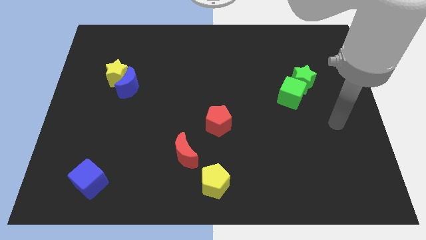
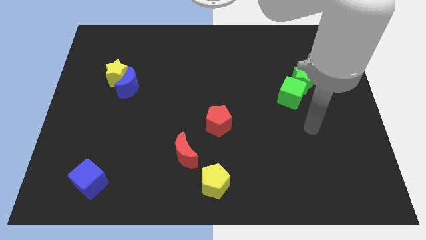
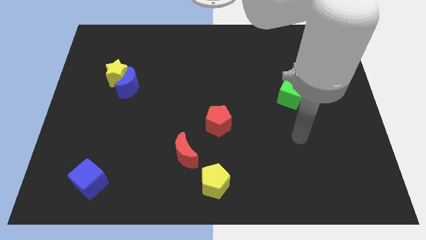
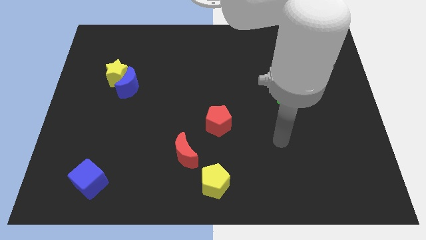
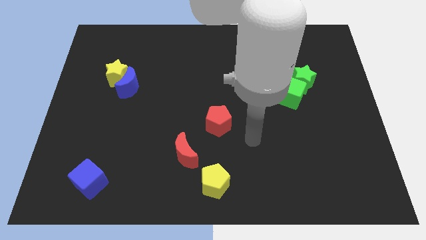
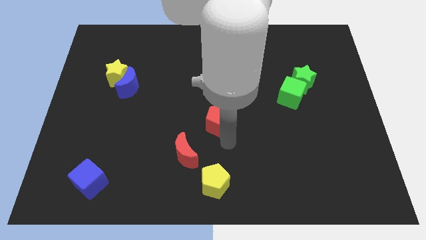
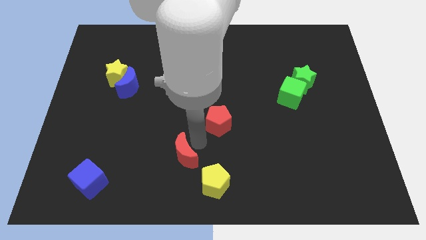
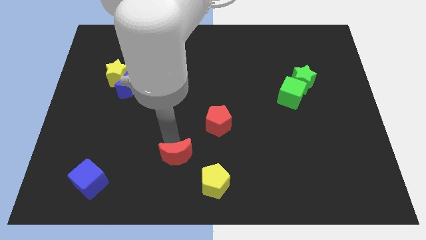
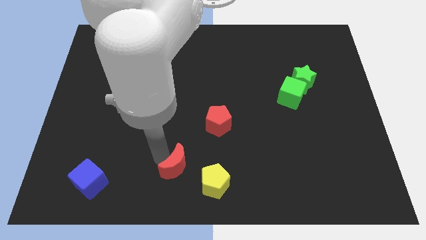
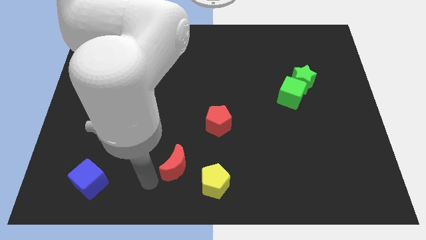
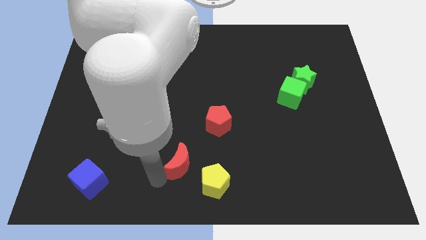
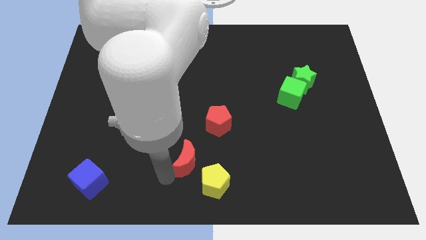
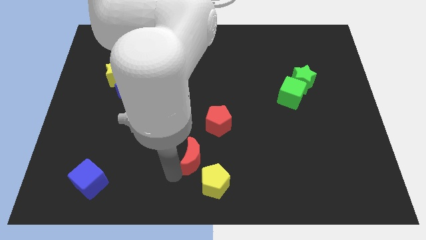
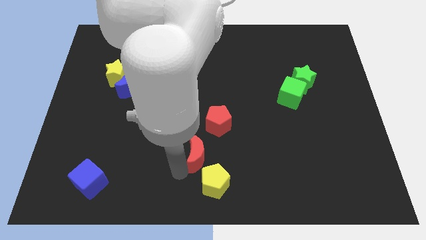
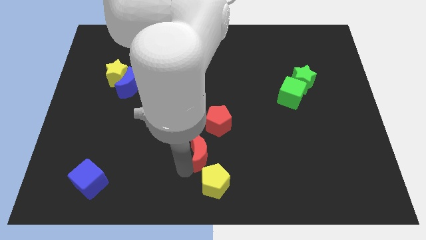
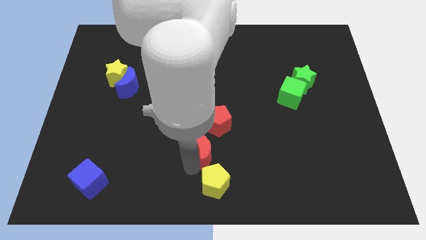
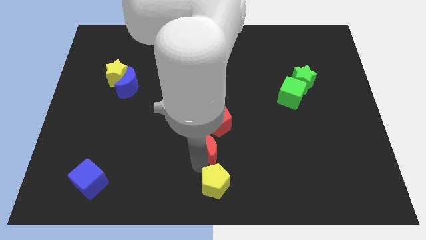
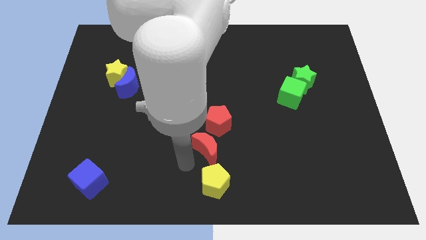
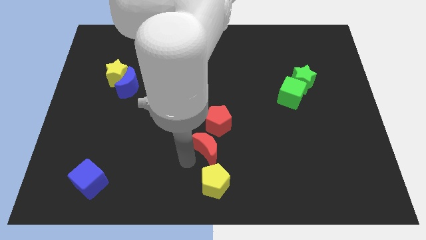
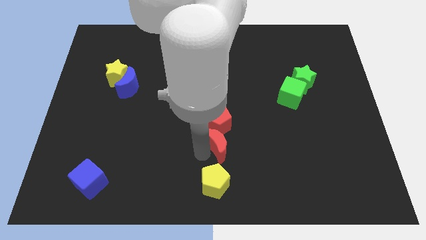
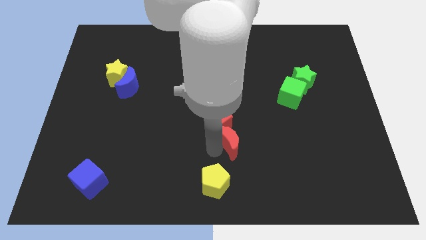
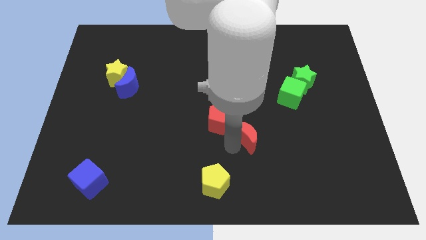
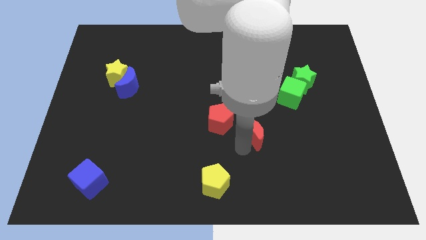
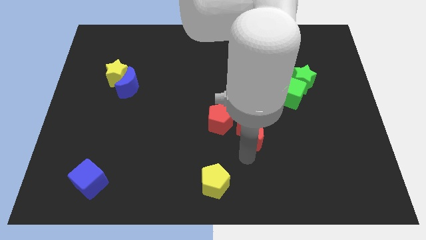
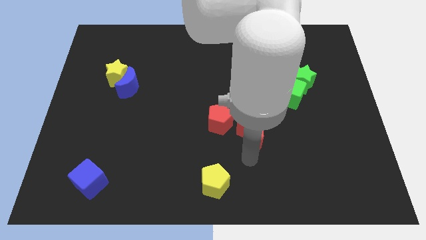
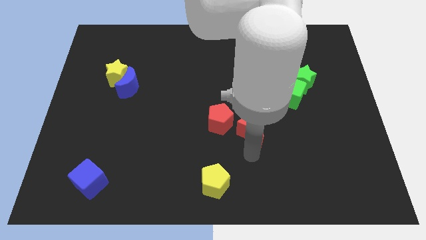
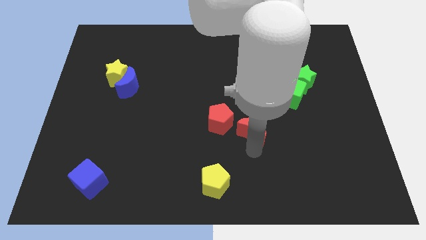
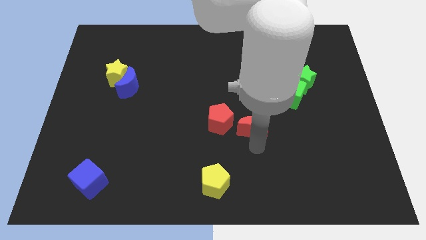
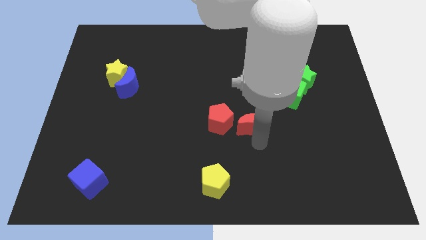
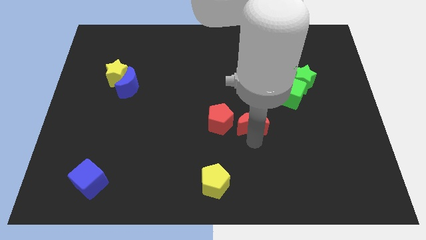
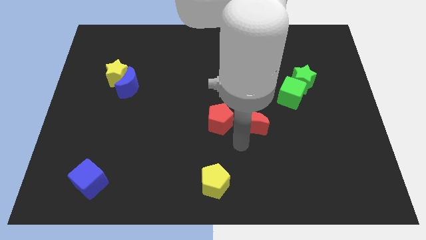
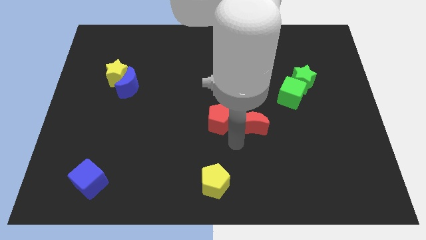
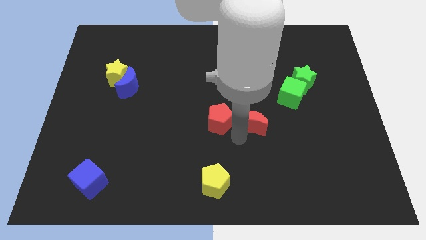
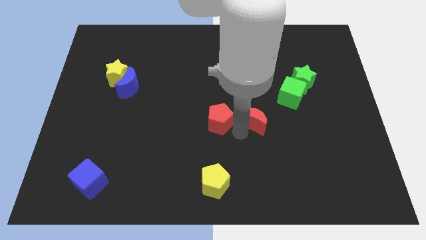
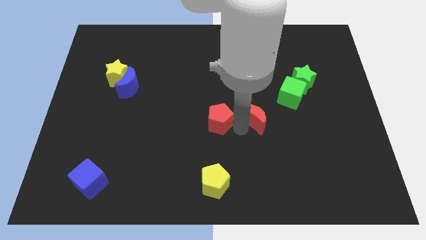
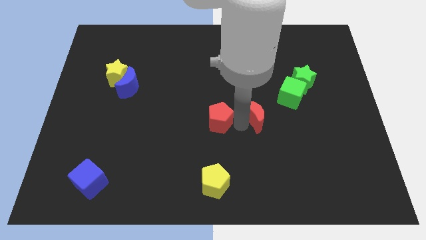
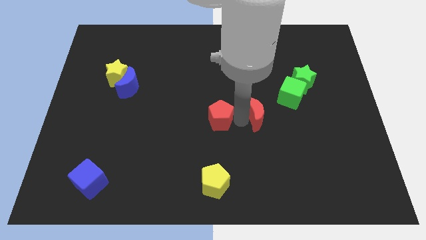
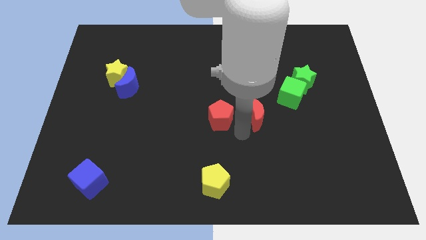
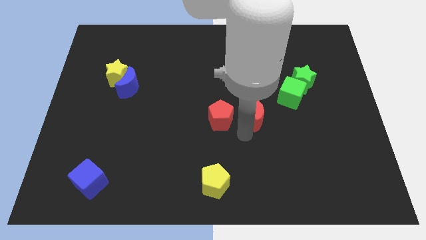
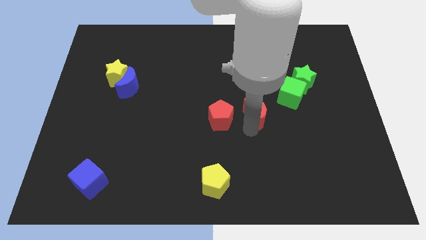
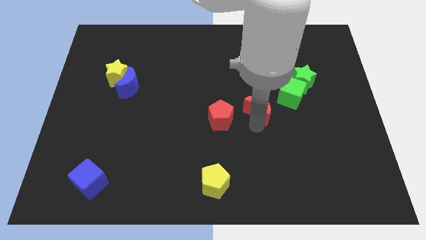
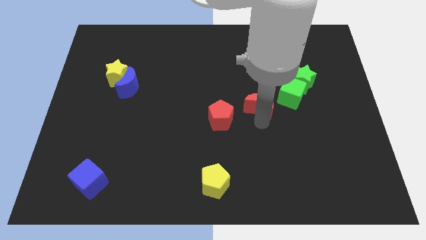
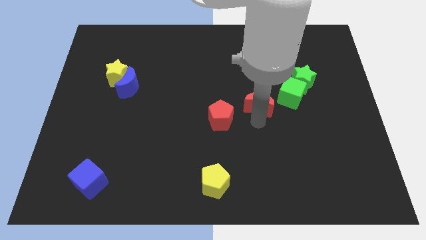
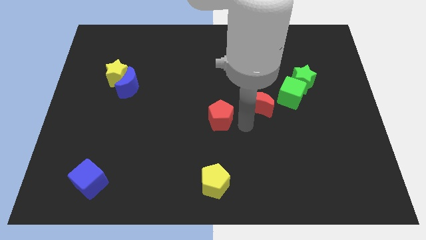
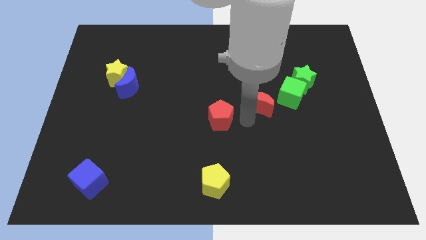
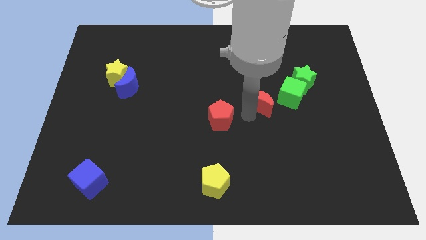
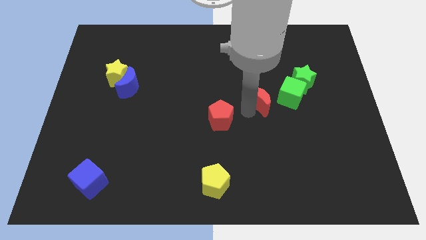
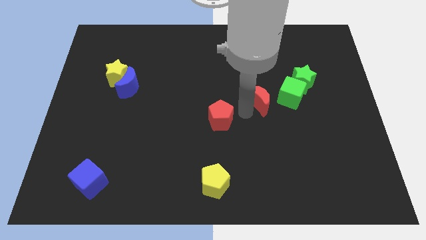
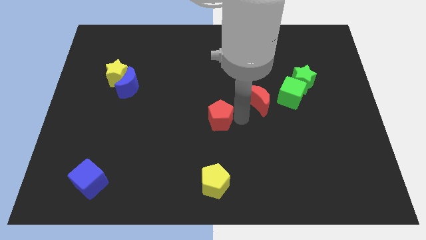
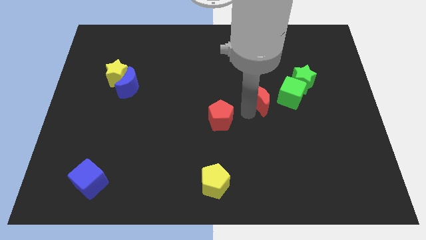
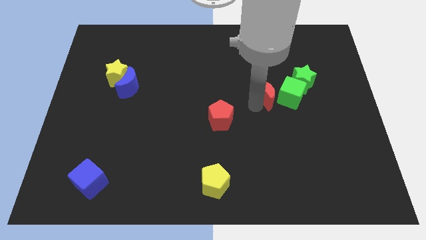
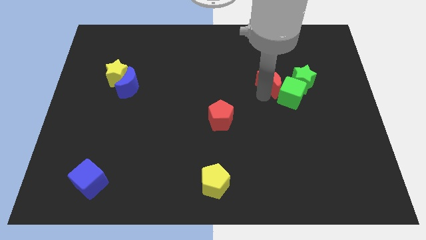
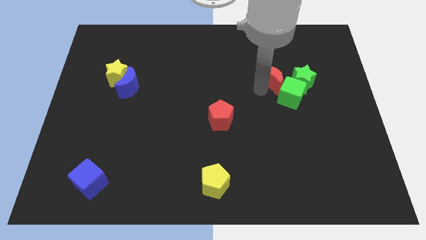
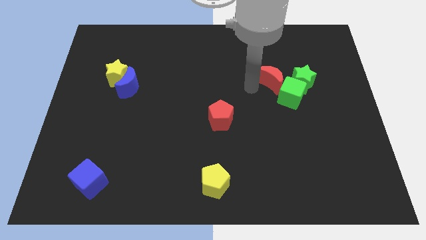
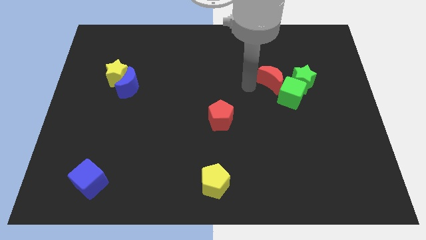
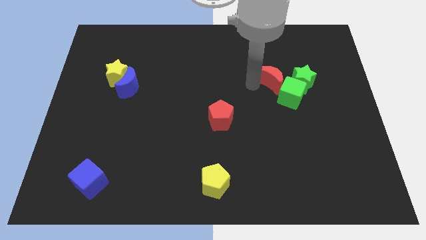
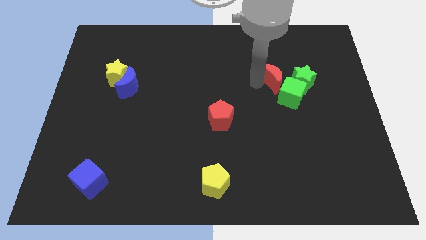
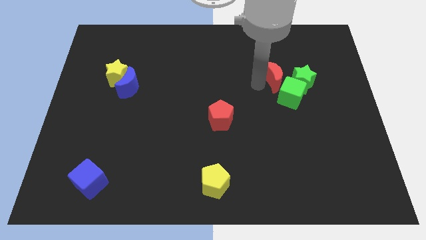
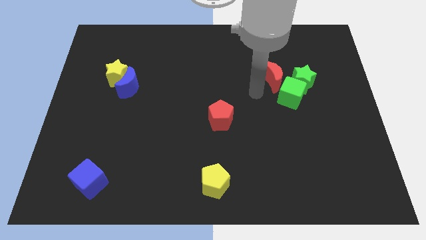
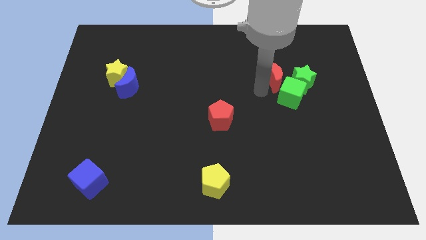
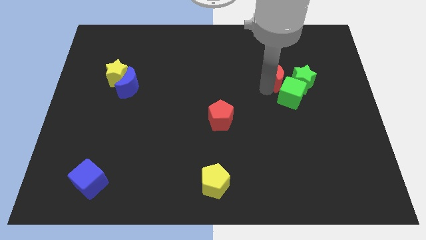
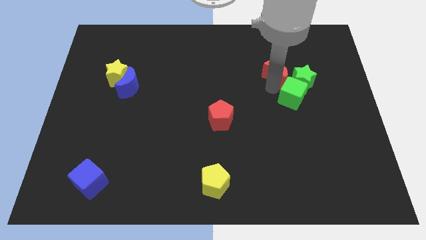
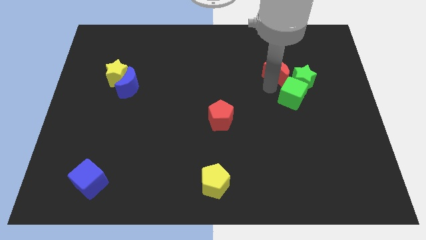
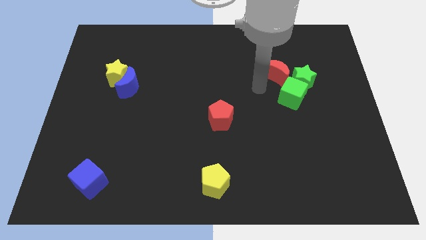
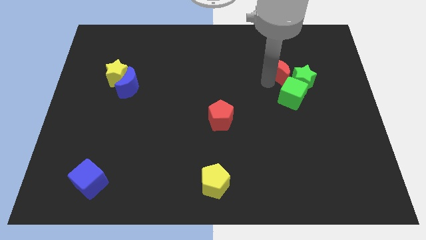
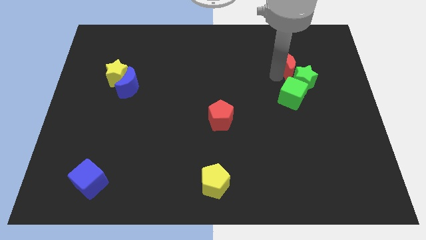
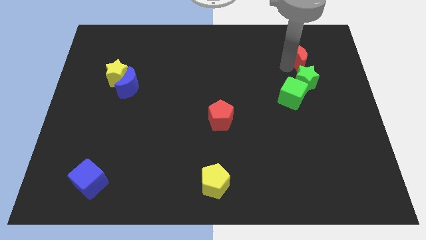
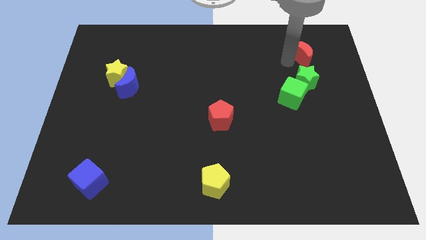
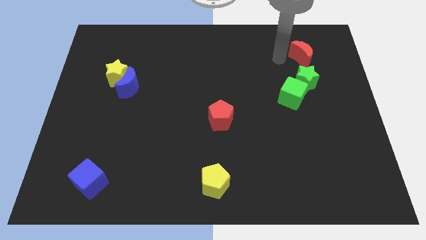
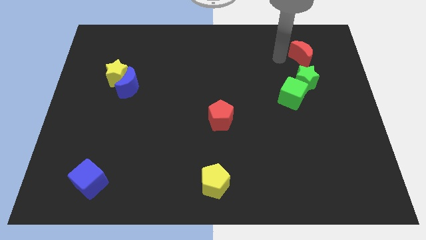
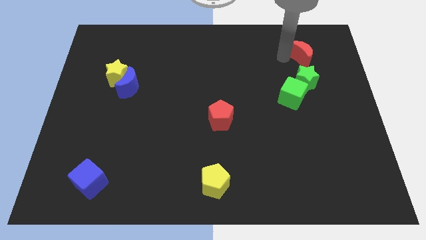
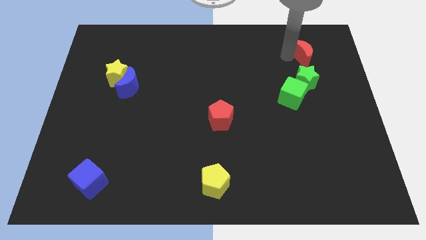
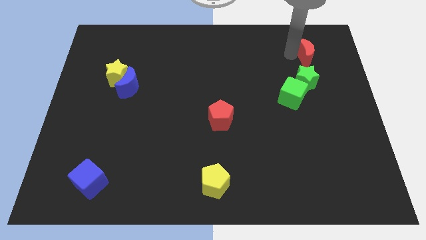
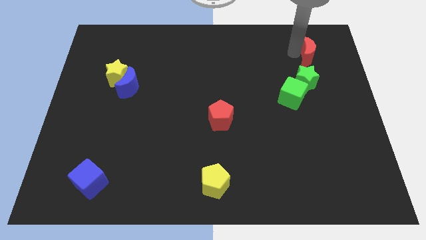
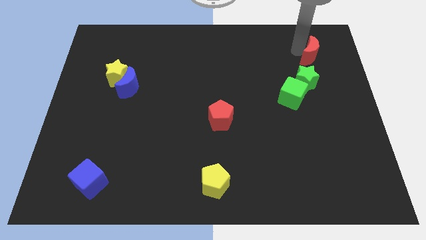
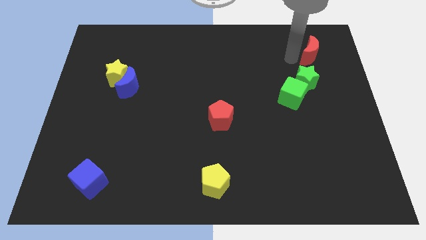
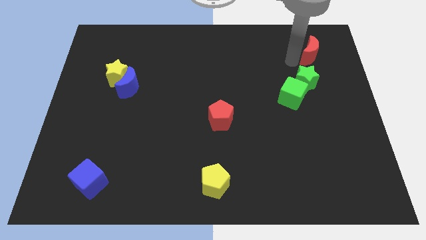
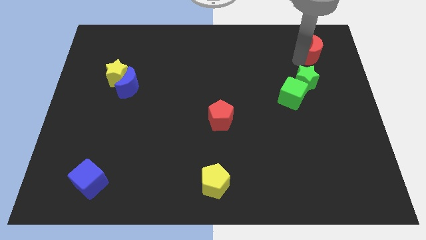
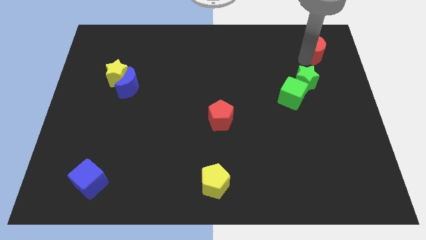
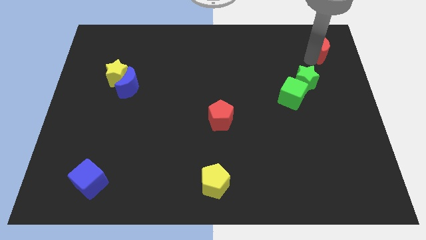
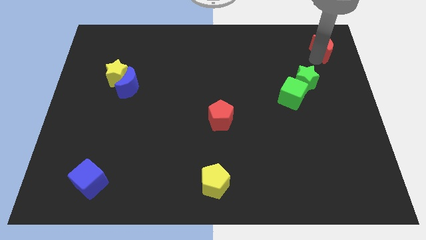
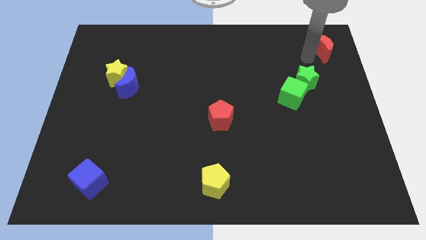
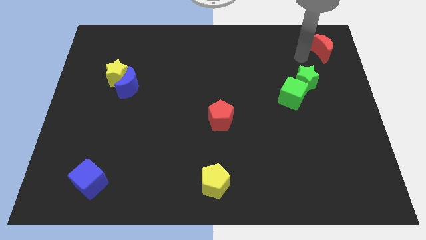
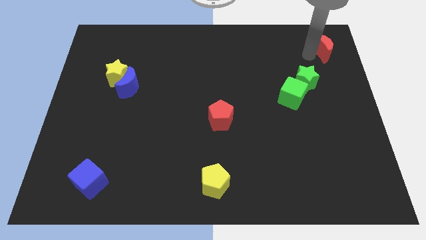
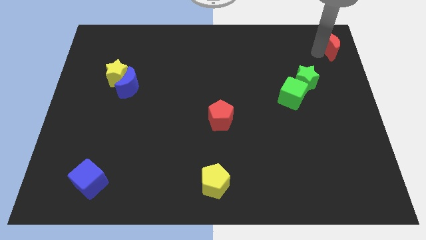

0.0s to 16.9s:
push the red moon to the upper right corner
